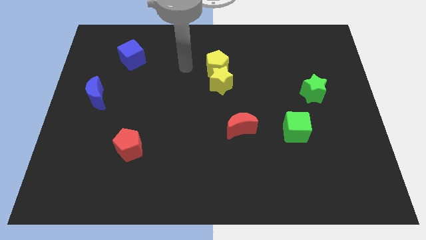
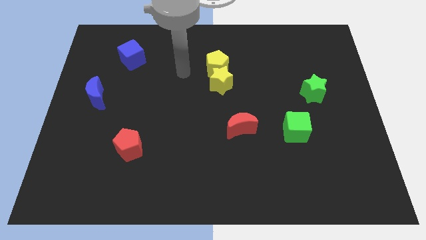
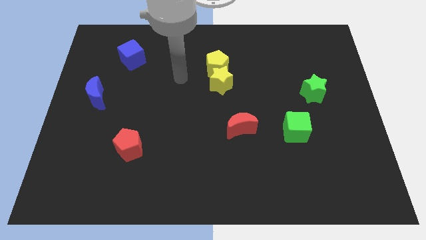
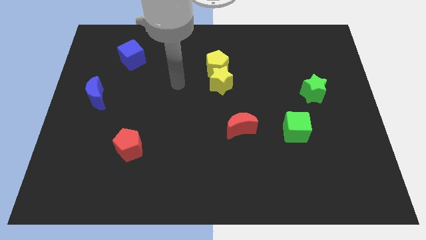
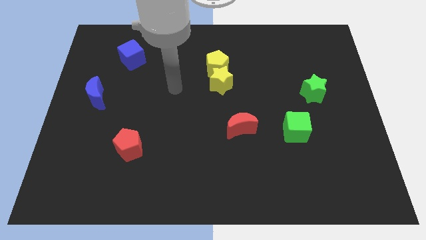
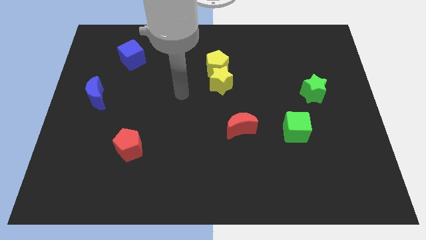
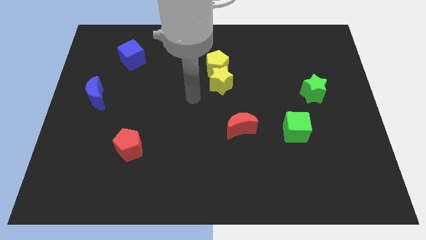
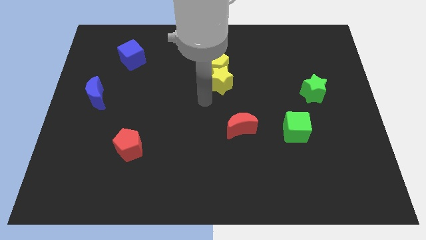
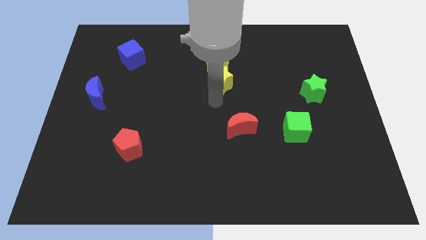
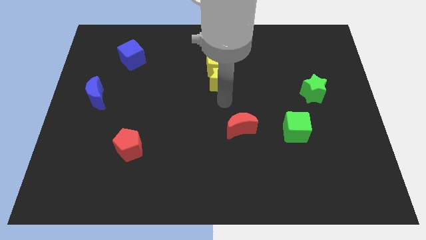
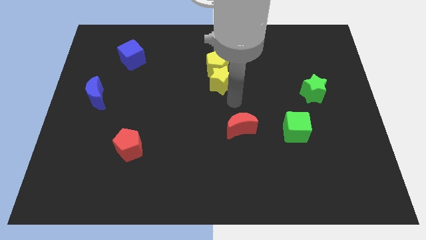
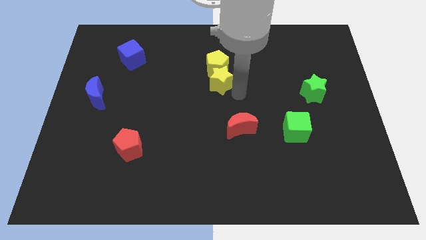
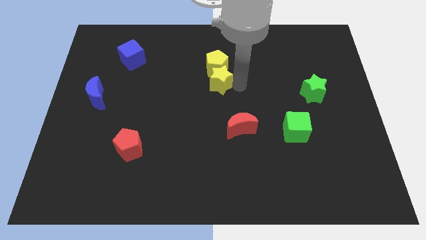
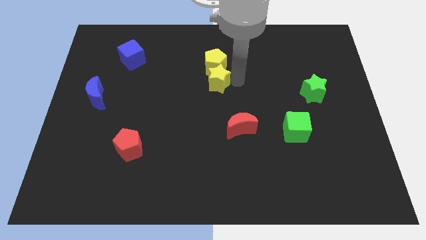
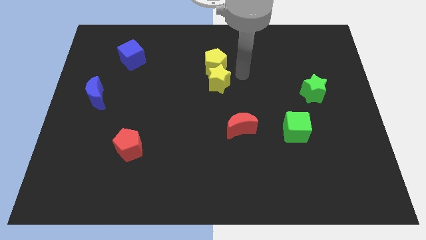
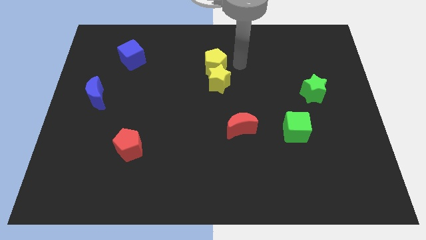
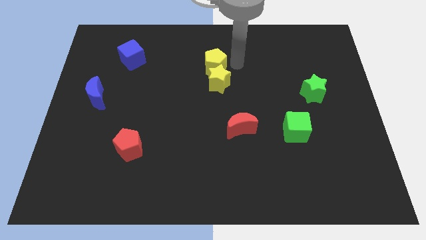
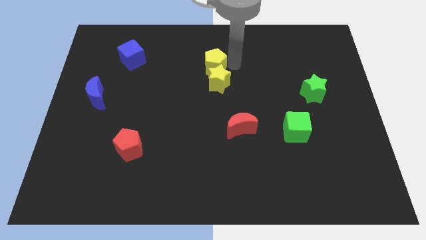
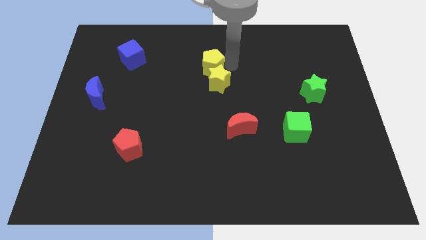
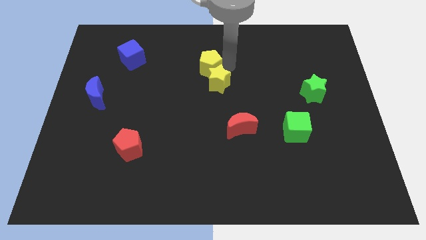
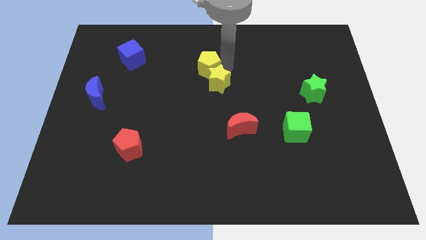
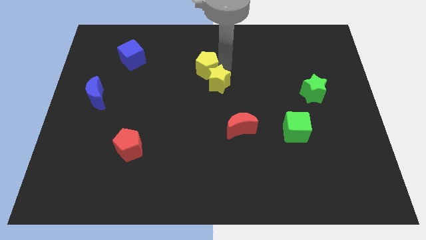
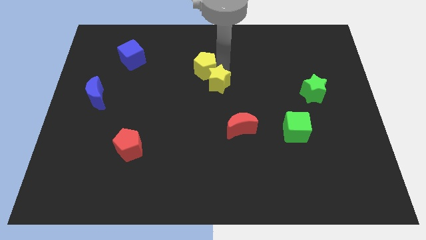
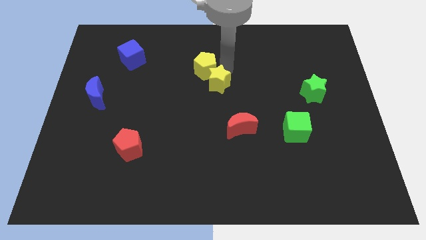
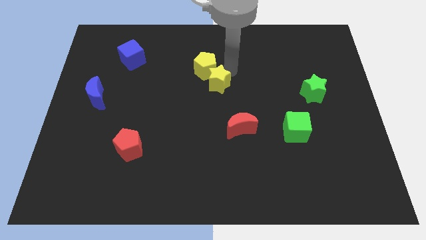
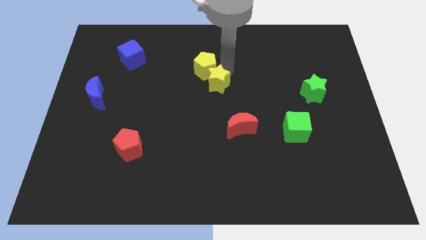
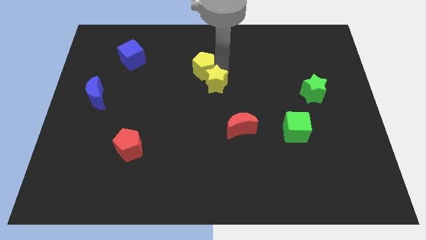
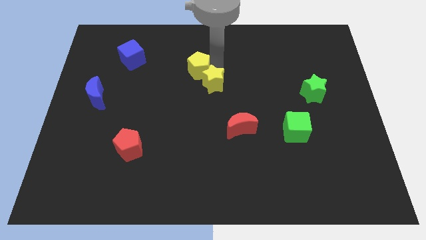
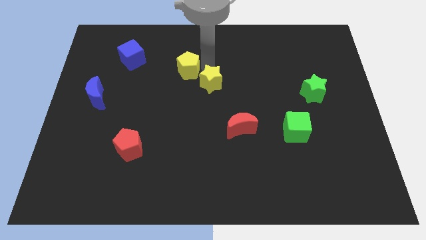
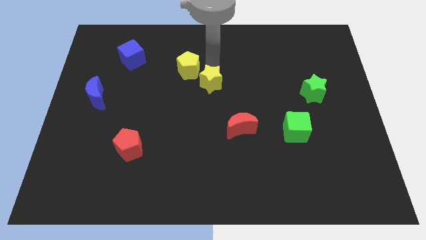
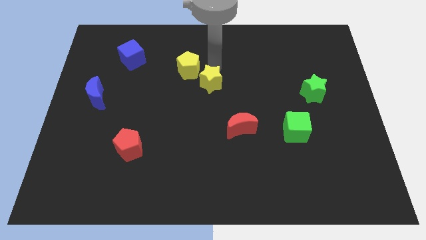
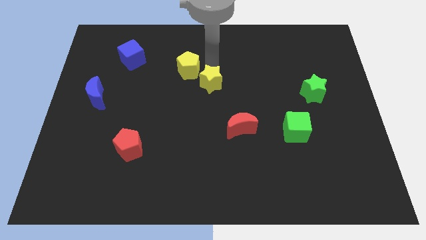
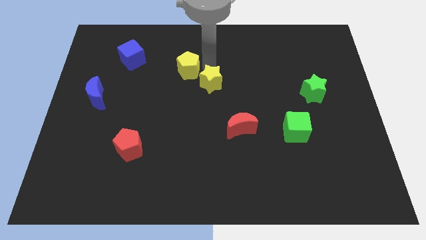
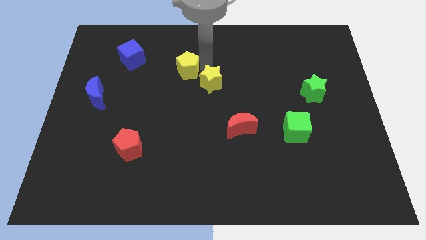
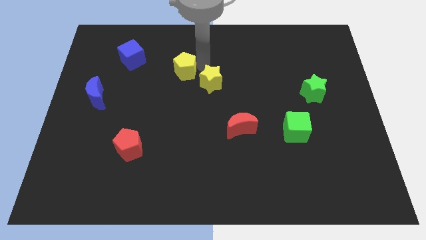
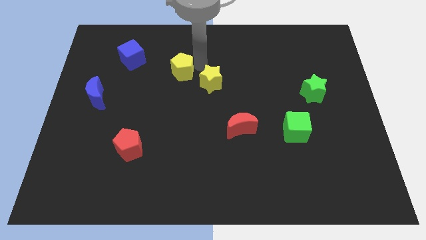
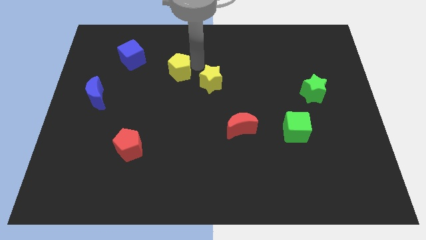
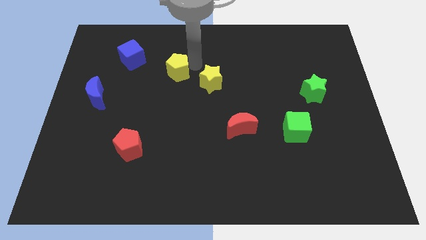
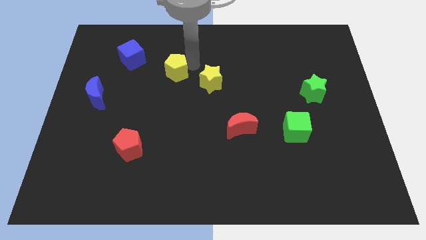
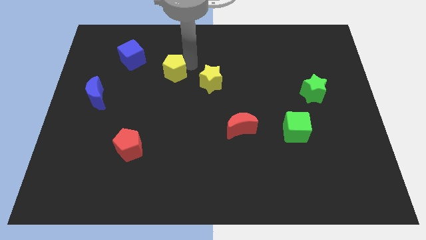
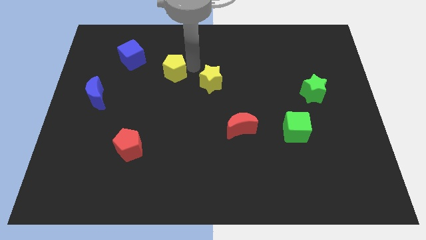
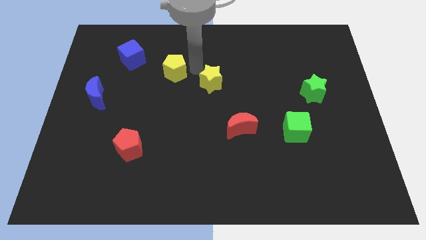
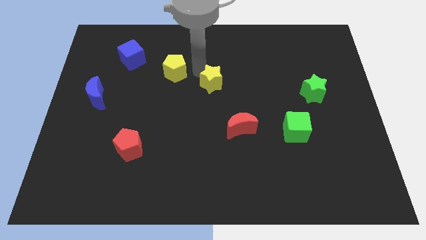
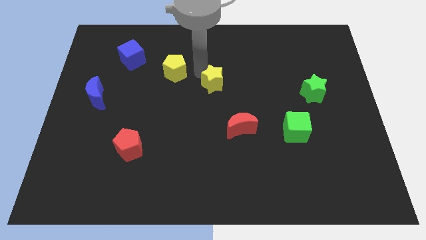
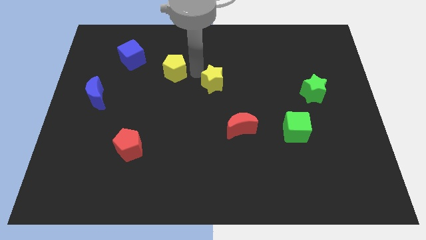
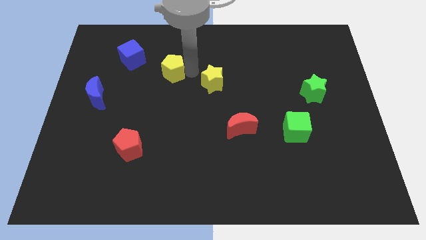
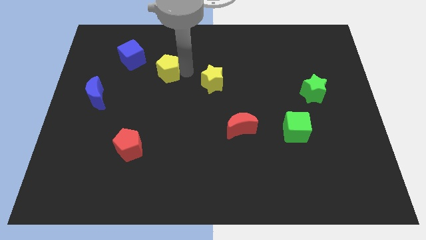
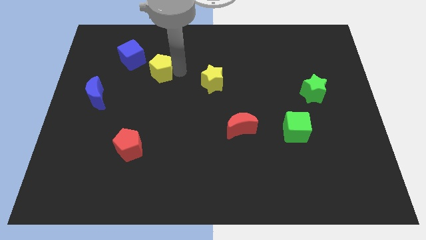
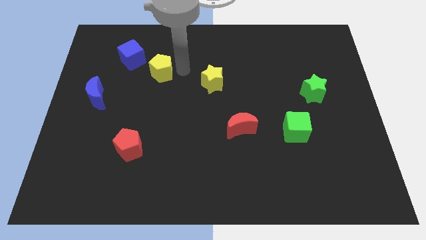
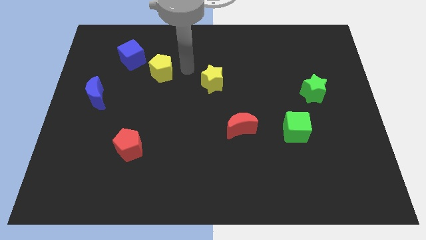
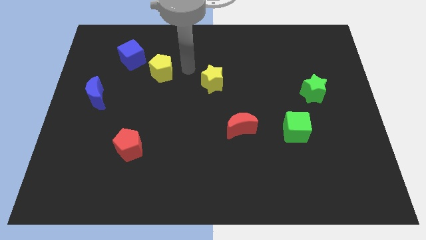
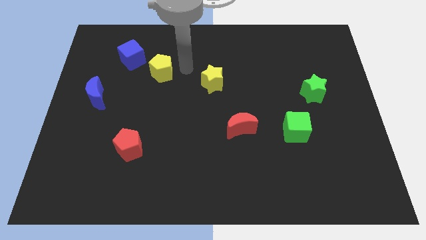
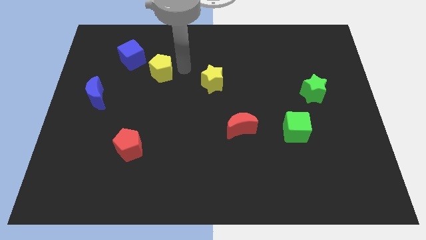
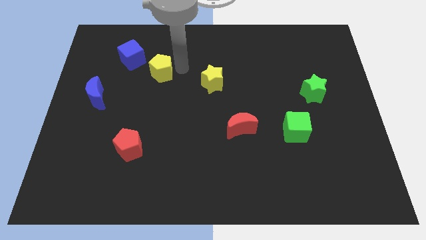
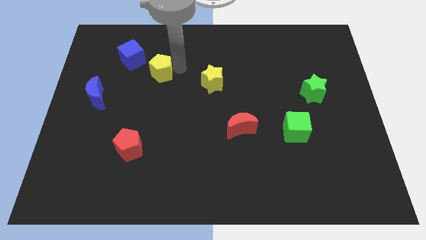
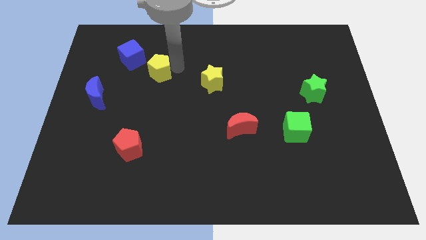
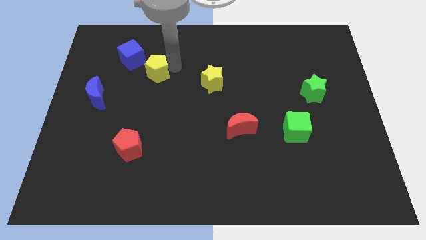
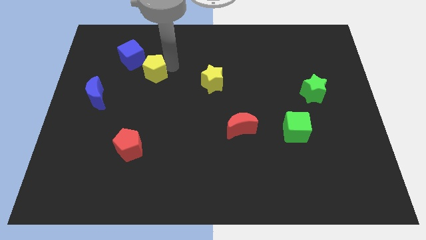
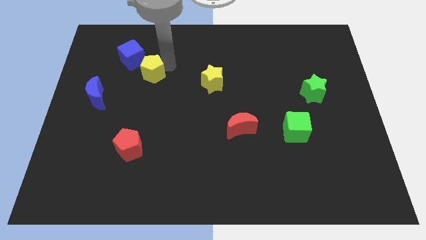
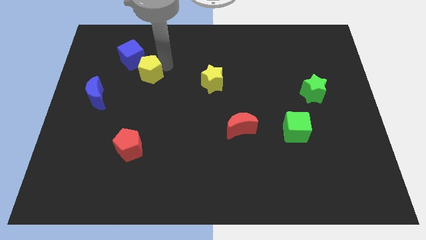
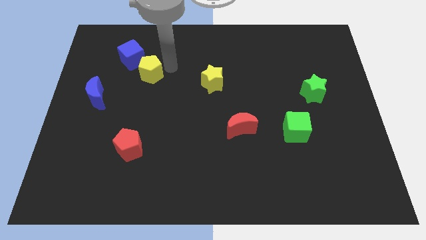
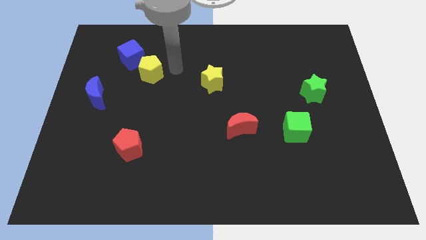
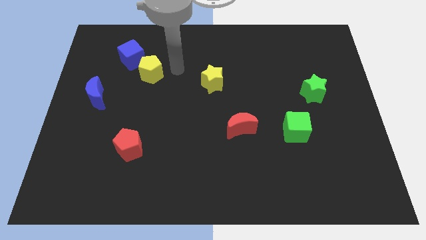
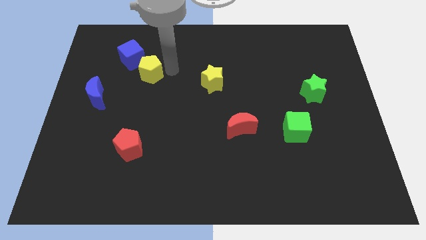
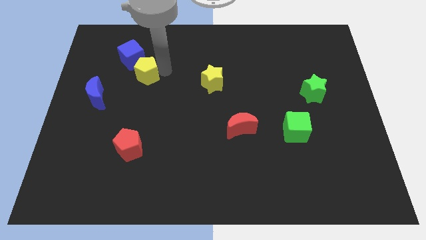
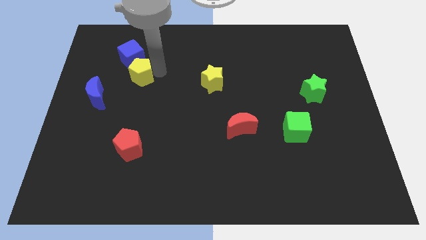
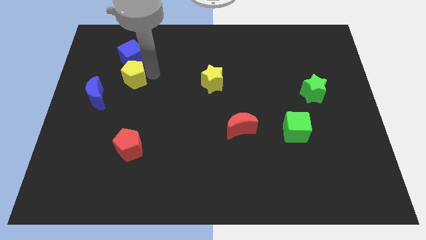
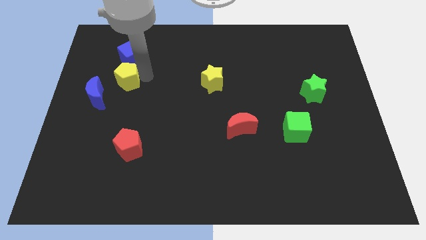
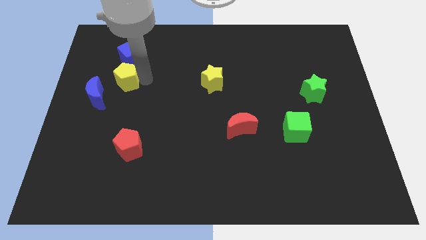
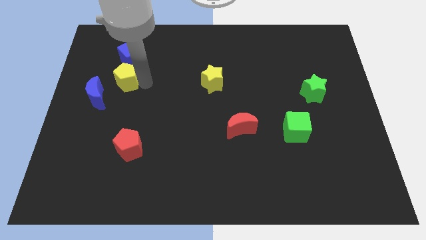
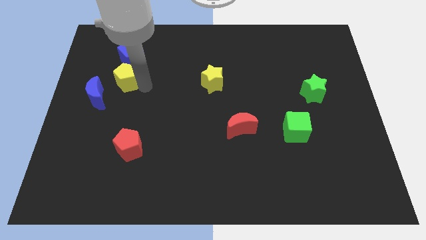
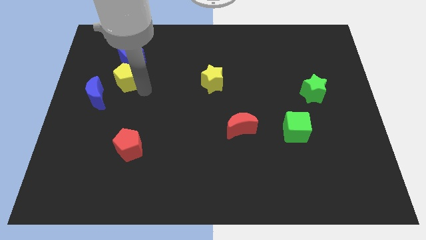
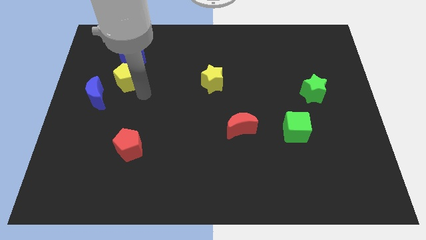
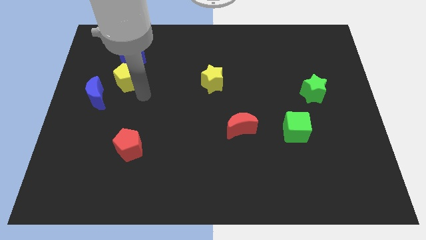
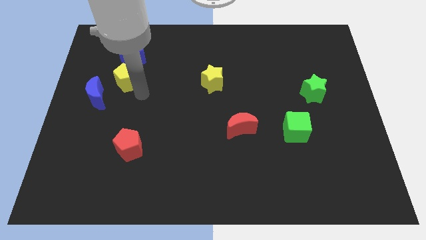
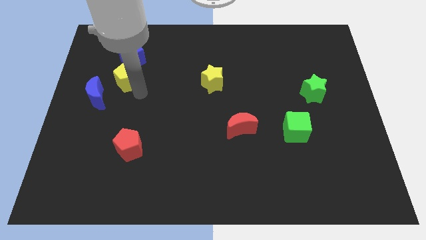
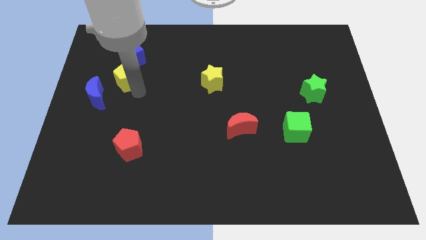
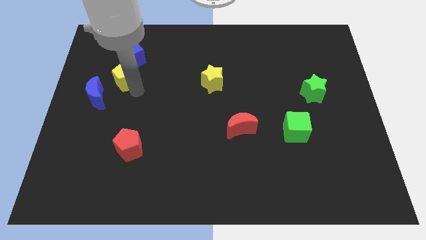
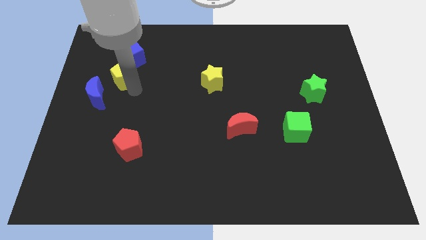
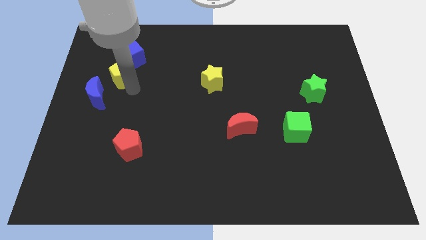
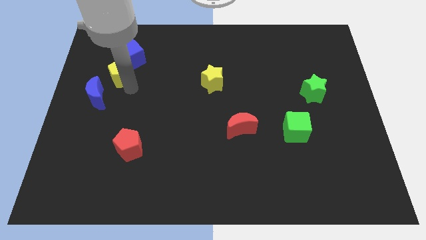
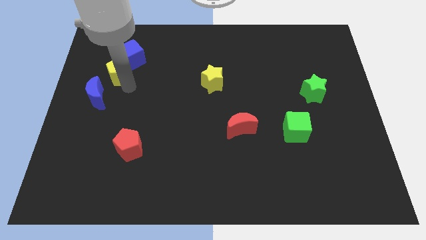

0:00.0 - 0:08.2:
move the yellow pentagon to the top of the blue moon
